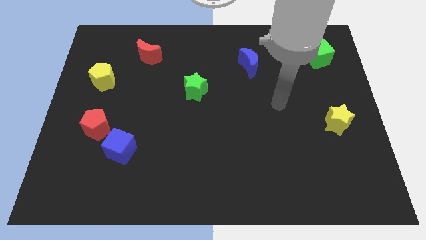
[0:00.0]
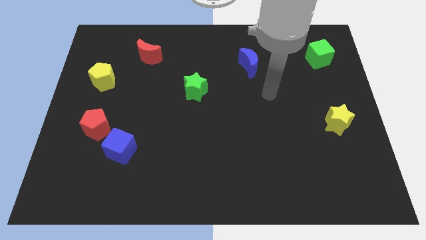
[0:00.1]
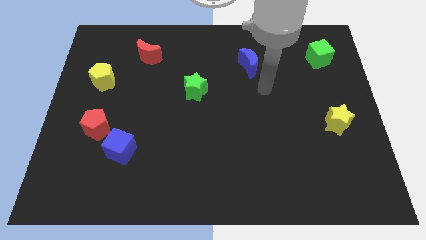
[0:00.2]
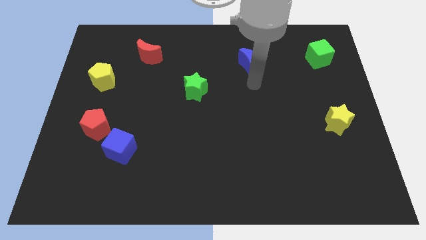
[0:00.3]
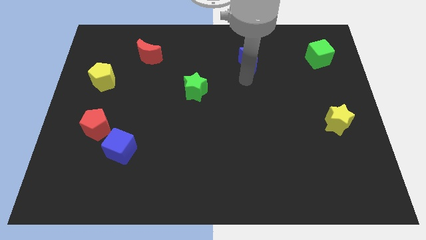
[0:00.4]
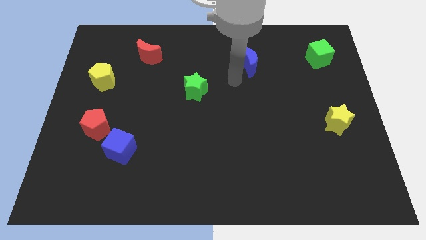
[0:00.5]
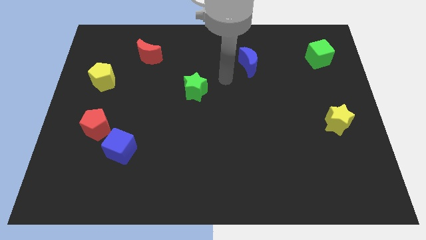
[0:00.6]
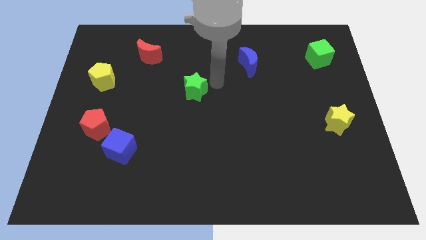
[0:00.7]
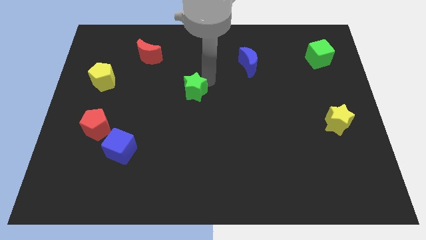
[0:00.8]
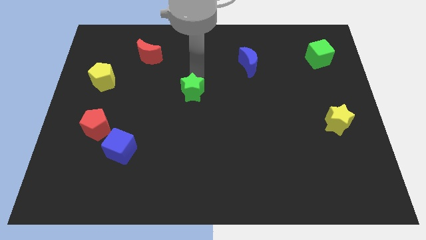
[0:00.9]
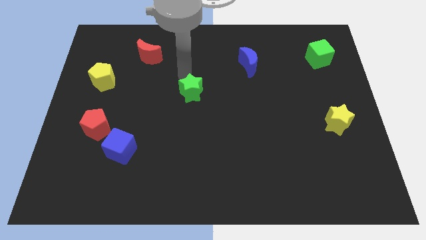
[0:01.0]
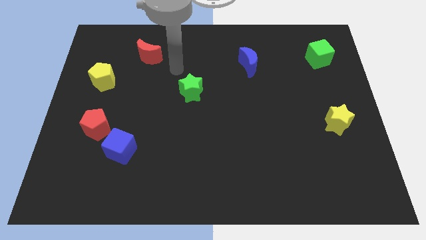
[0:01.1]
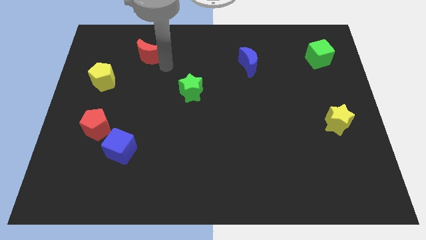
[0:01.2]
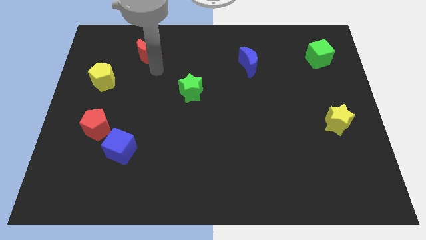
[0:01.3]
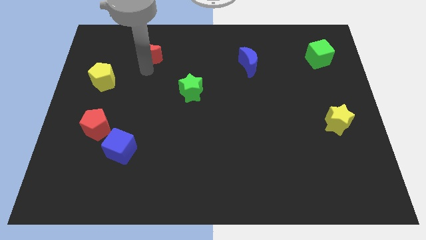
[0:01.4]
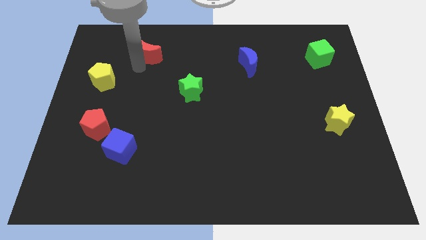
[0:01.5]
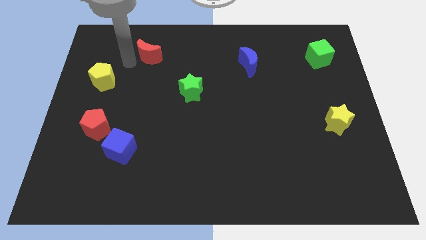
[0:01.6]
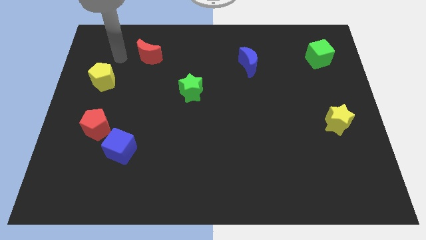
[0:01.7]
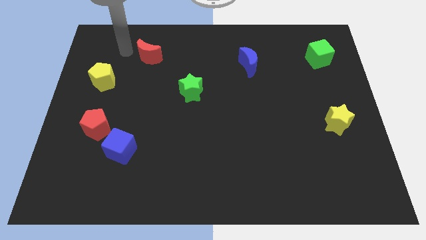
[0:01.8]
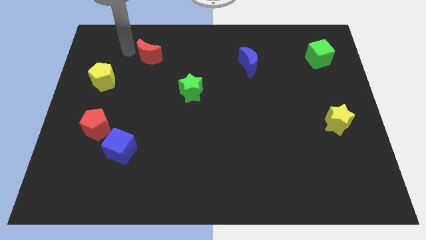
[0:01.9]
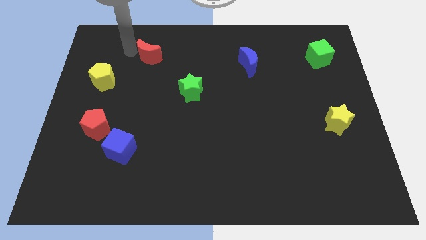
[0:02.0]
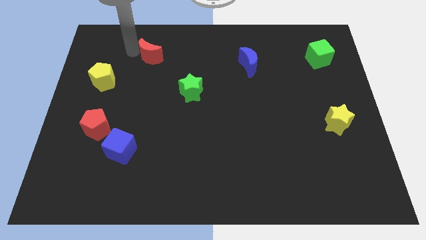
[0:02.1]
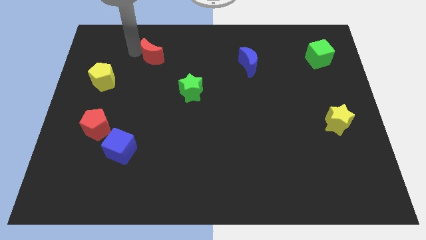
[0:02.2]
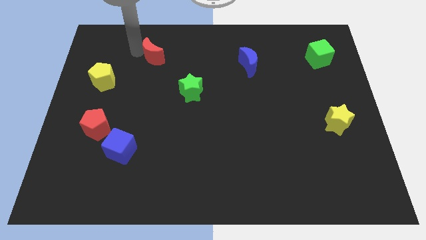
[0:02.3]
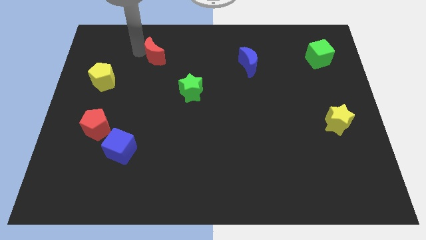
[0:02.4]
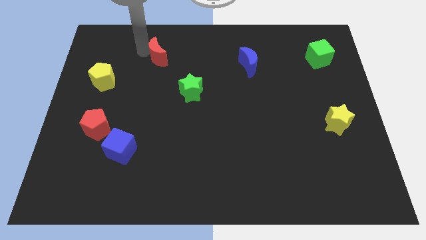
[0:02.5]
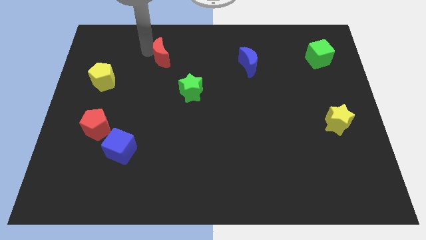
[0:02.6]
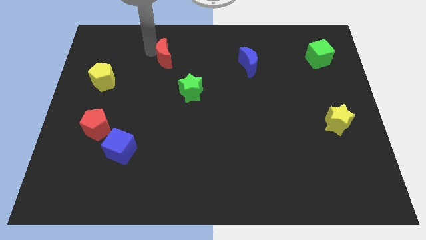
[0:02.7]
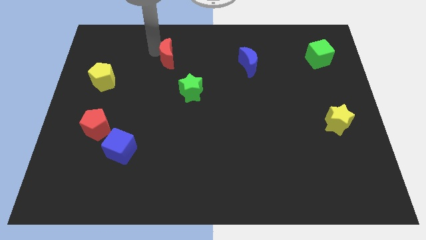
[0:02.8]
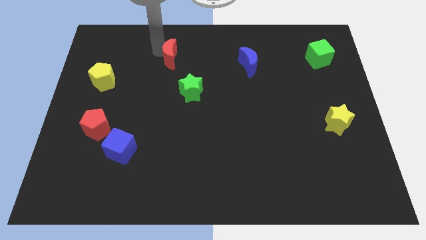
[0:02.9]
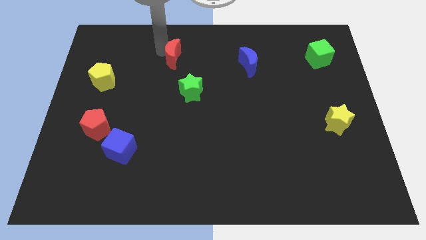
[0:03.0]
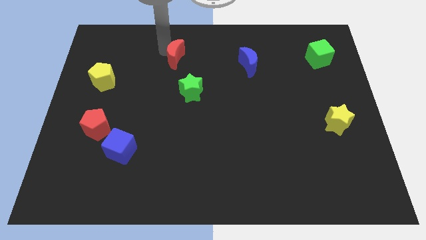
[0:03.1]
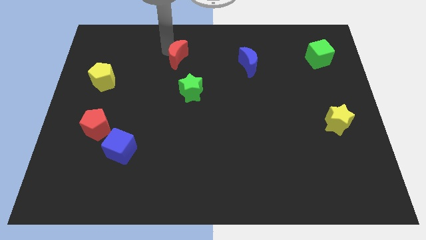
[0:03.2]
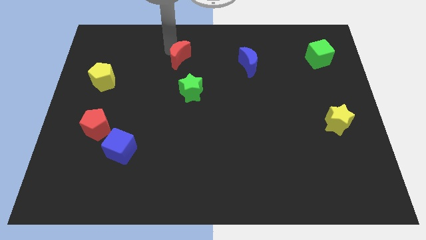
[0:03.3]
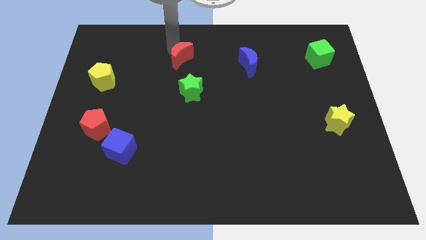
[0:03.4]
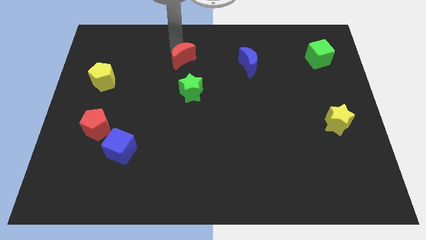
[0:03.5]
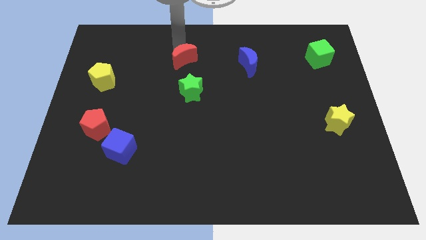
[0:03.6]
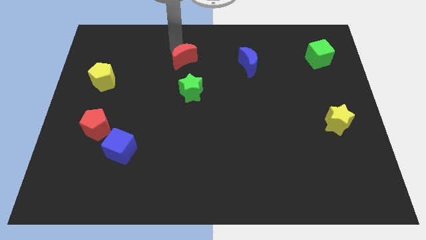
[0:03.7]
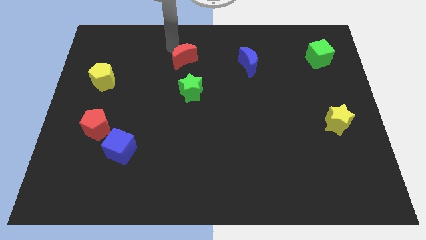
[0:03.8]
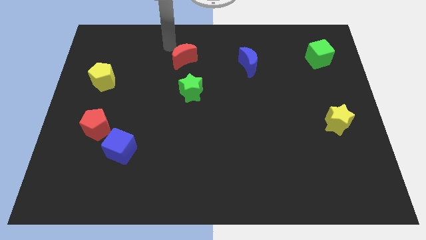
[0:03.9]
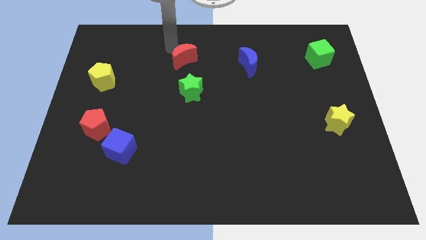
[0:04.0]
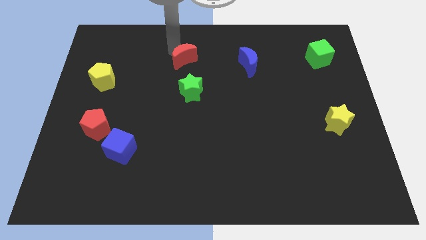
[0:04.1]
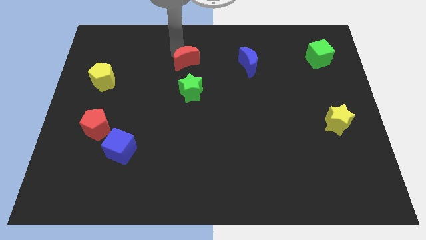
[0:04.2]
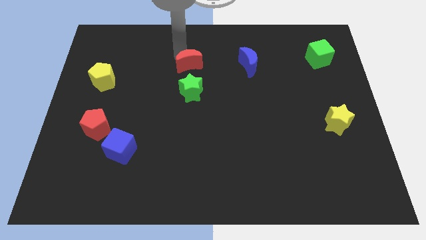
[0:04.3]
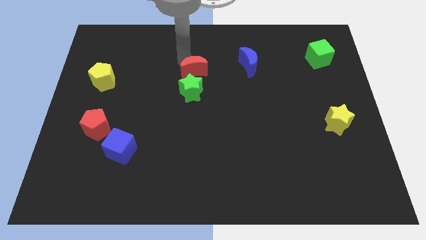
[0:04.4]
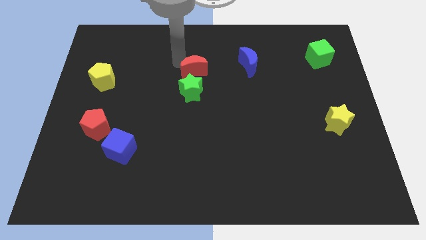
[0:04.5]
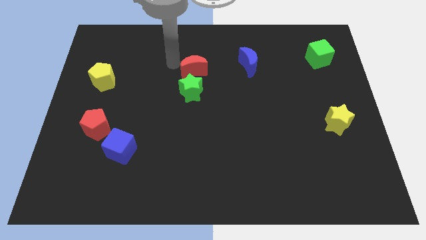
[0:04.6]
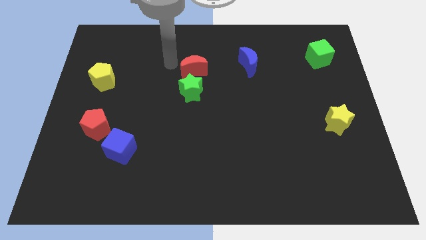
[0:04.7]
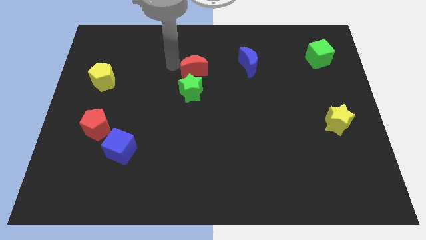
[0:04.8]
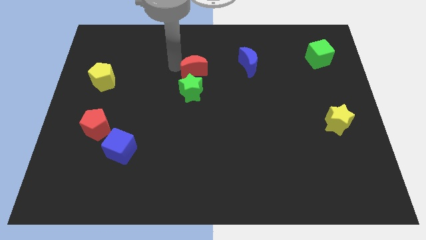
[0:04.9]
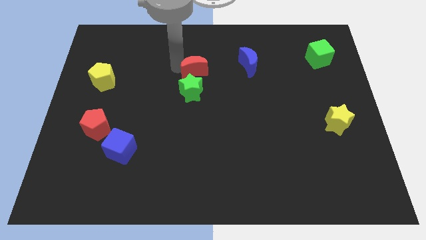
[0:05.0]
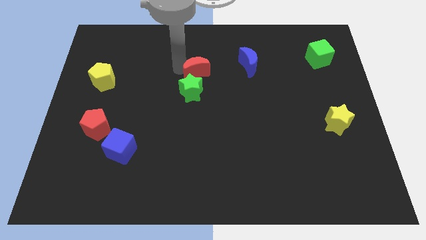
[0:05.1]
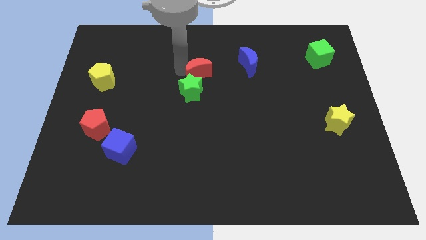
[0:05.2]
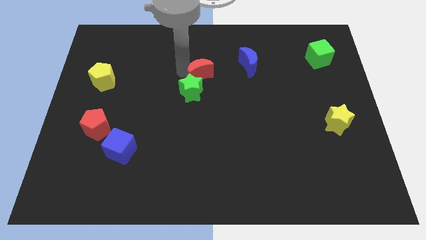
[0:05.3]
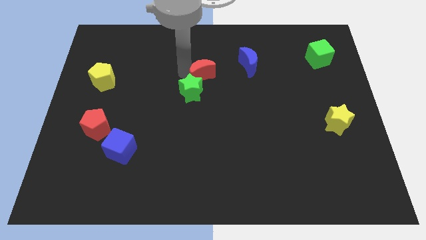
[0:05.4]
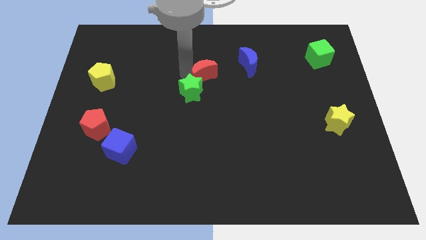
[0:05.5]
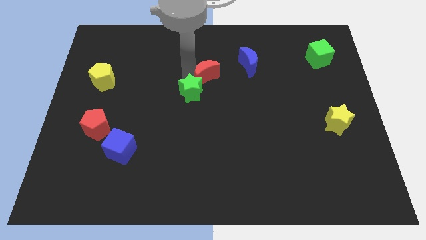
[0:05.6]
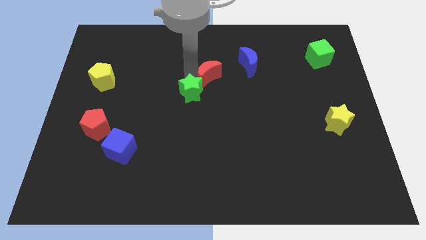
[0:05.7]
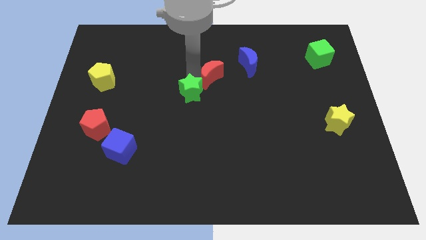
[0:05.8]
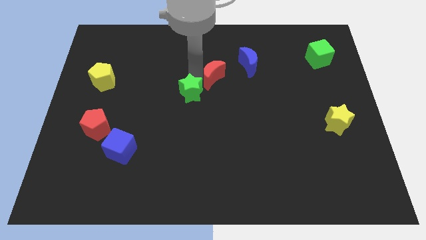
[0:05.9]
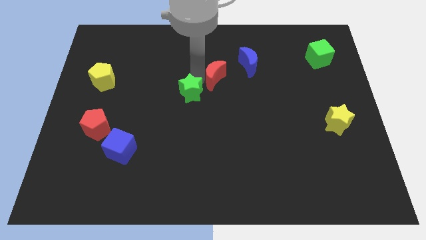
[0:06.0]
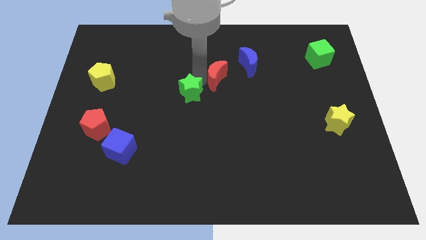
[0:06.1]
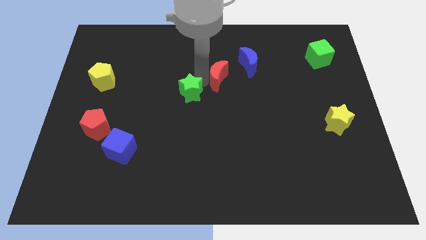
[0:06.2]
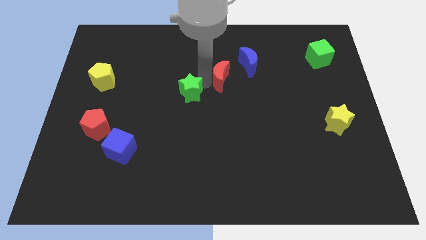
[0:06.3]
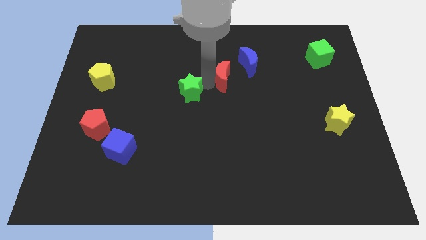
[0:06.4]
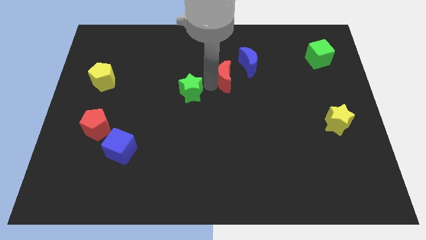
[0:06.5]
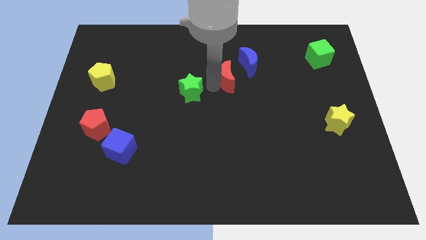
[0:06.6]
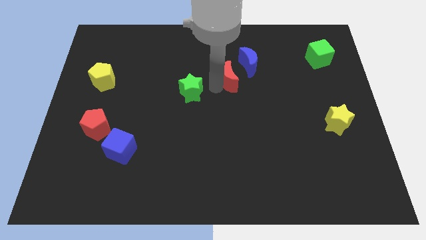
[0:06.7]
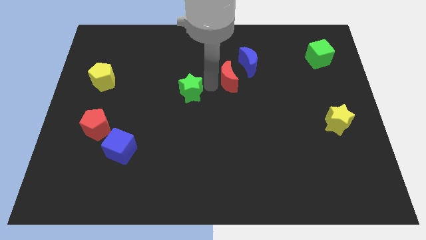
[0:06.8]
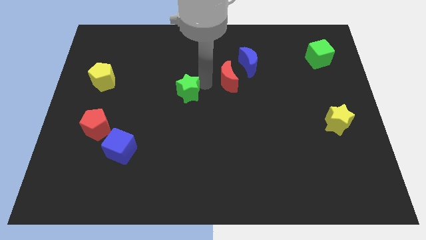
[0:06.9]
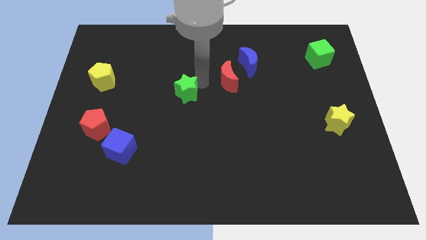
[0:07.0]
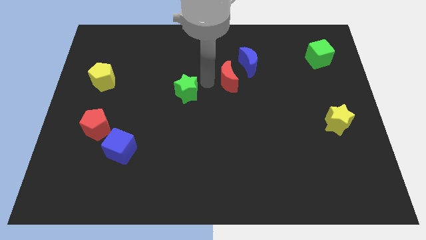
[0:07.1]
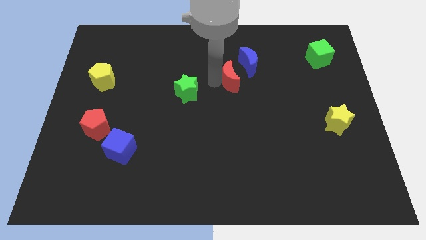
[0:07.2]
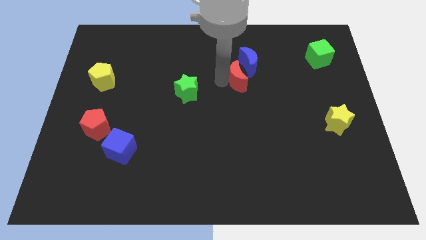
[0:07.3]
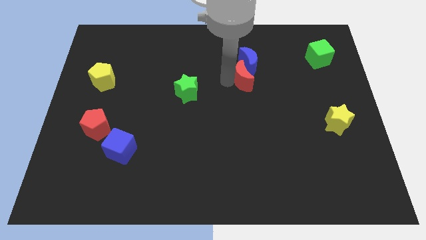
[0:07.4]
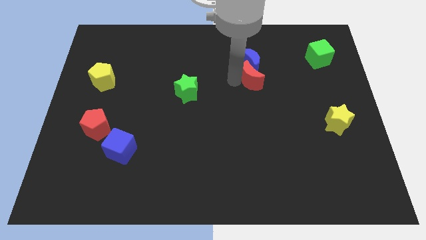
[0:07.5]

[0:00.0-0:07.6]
slide the red moon diagonally down and to the right of the blue moon
